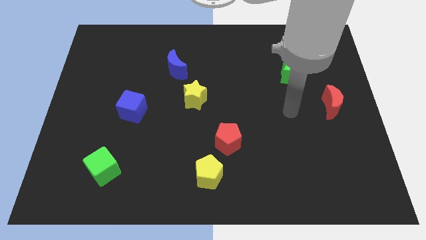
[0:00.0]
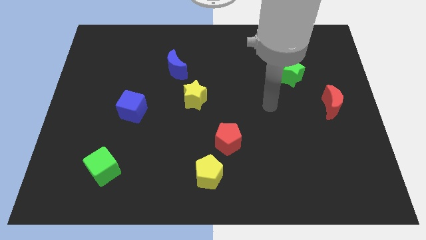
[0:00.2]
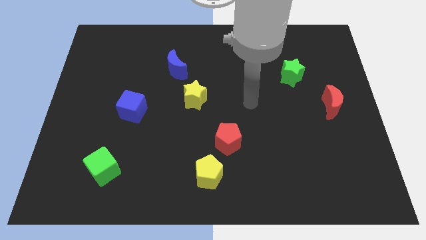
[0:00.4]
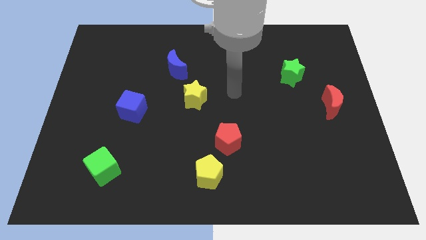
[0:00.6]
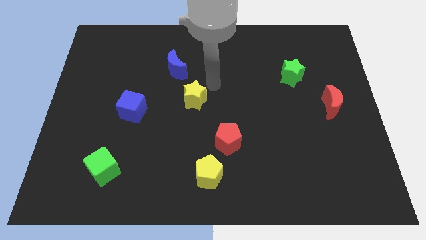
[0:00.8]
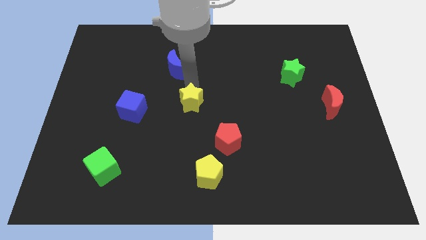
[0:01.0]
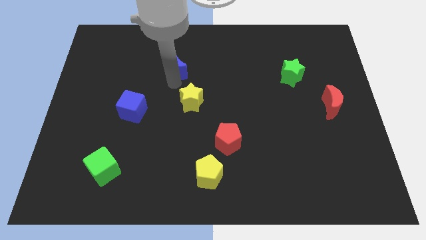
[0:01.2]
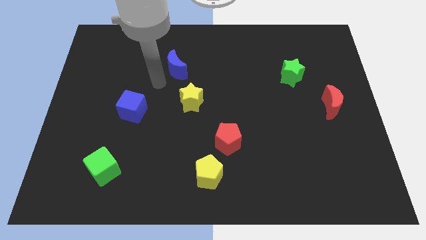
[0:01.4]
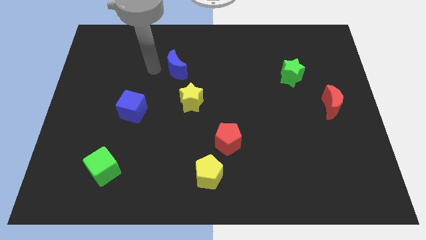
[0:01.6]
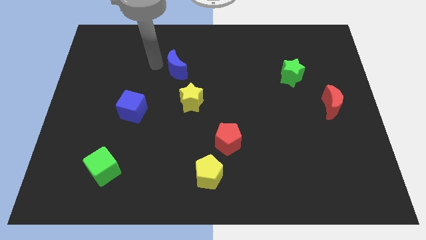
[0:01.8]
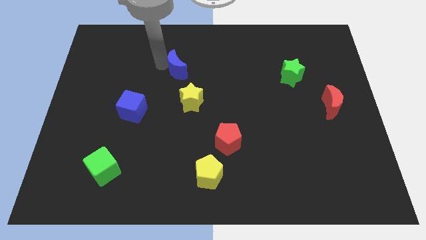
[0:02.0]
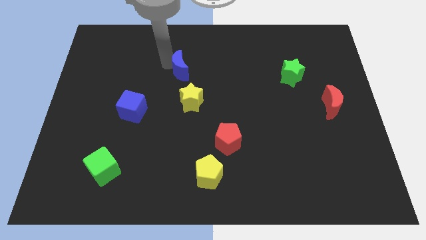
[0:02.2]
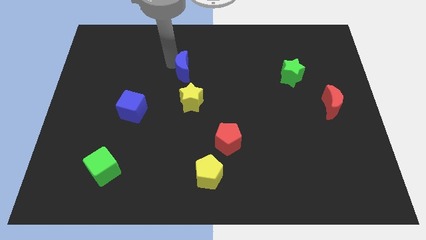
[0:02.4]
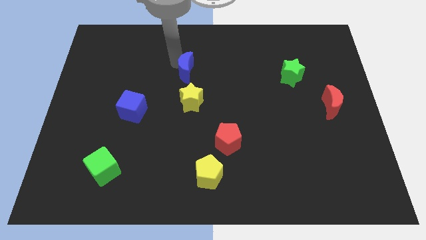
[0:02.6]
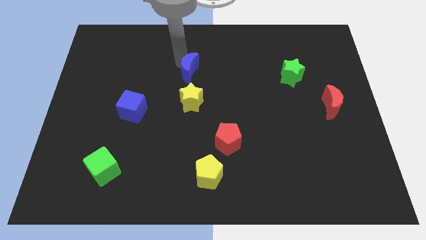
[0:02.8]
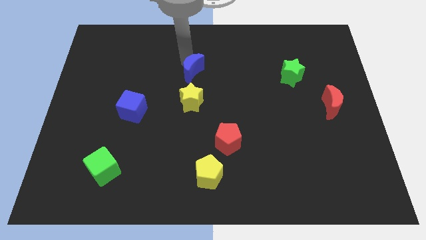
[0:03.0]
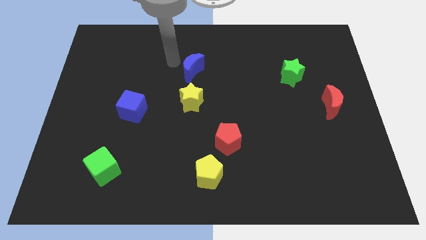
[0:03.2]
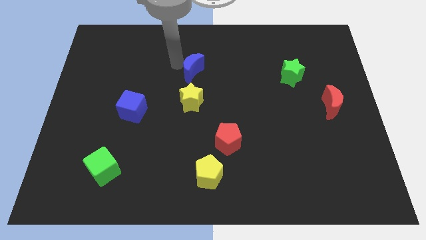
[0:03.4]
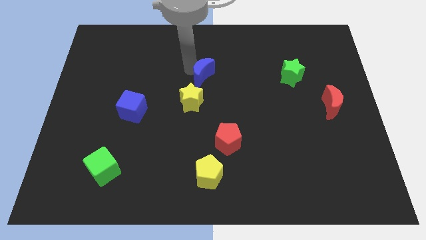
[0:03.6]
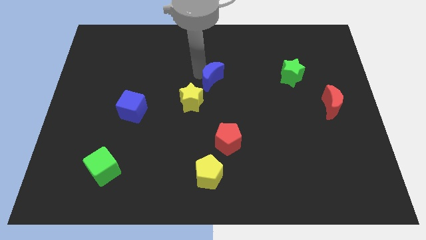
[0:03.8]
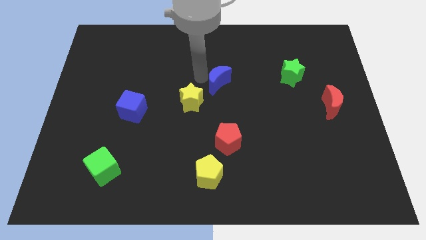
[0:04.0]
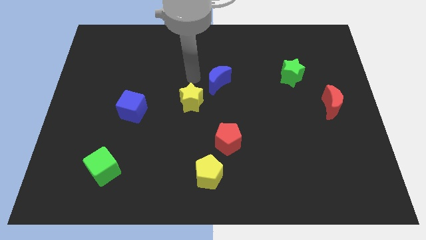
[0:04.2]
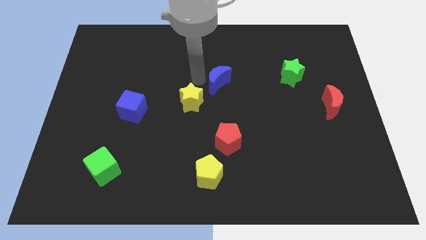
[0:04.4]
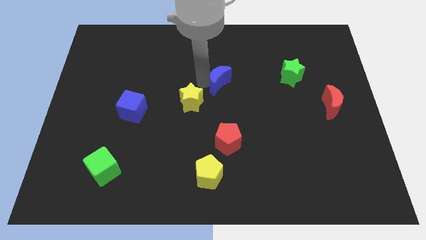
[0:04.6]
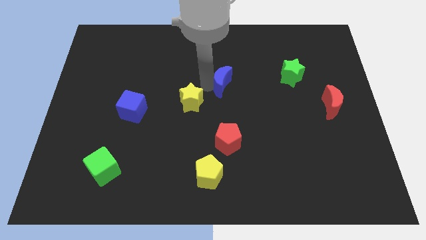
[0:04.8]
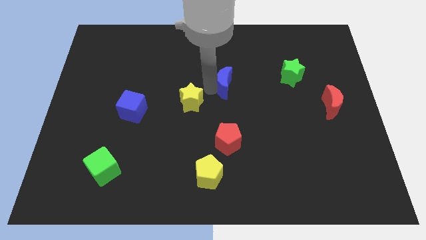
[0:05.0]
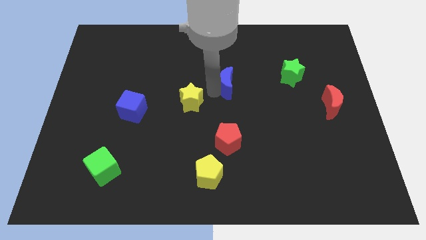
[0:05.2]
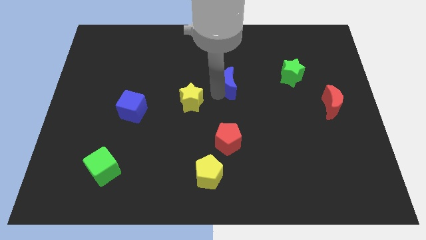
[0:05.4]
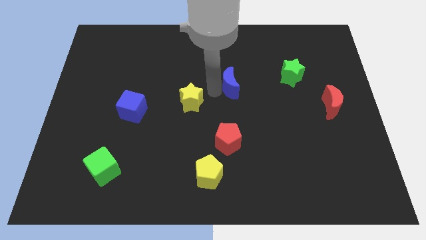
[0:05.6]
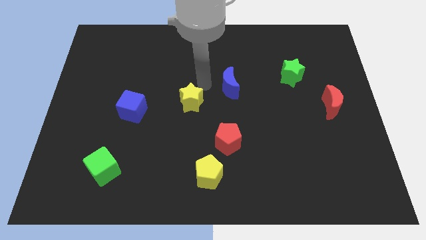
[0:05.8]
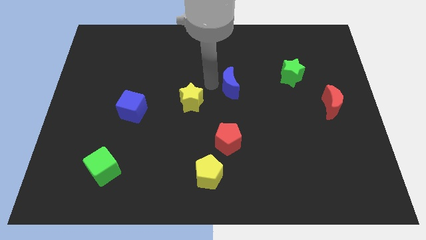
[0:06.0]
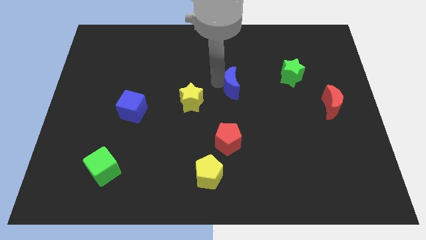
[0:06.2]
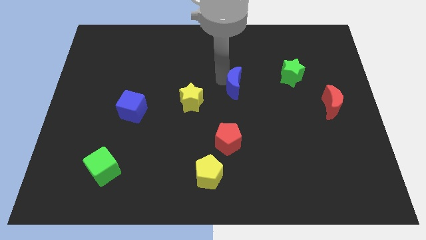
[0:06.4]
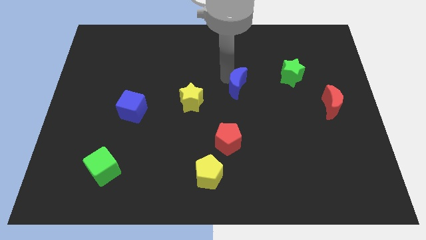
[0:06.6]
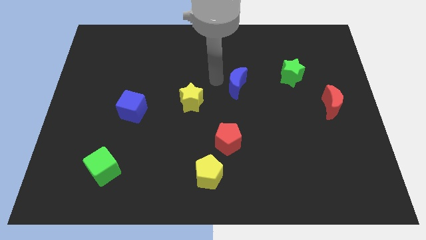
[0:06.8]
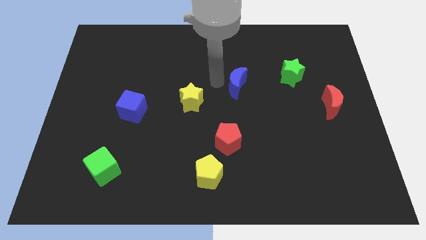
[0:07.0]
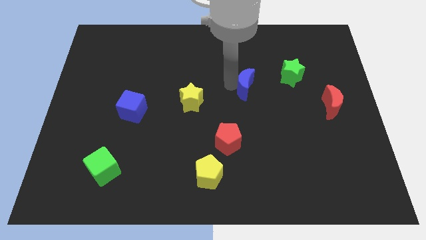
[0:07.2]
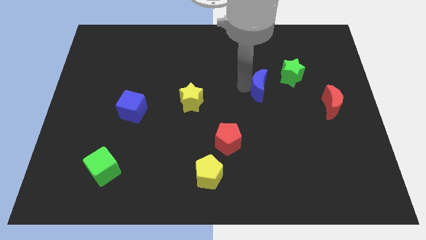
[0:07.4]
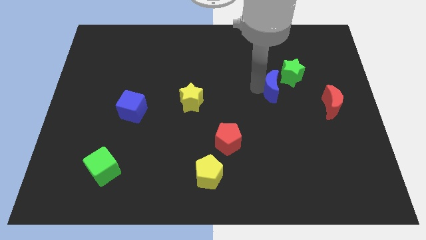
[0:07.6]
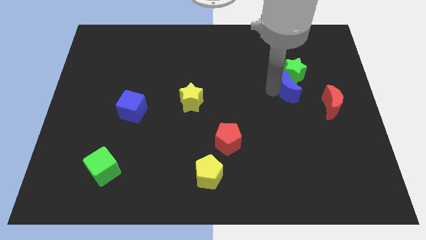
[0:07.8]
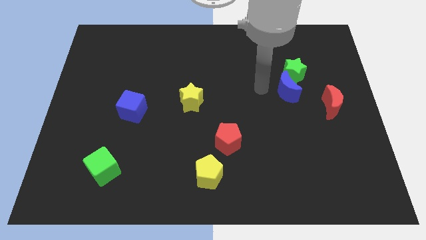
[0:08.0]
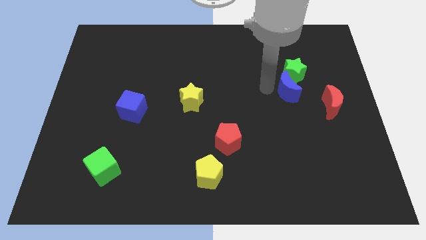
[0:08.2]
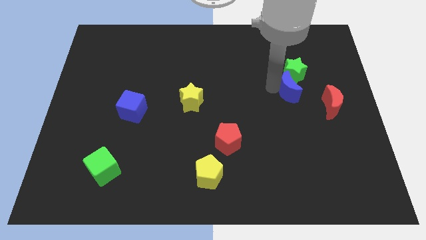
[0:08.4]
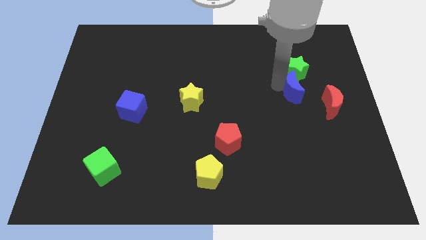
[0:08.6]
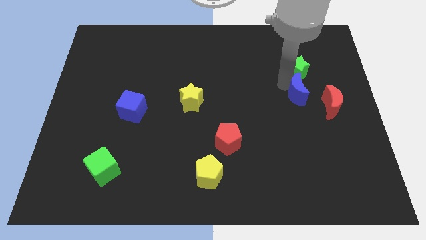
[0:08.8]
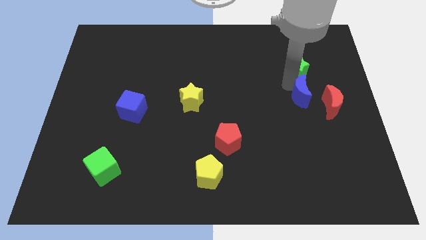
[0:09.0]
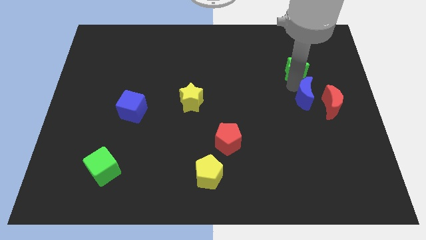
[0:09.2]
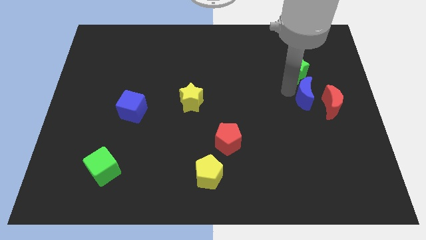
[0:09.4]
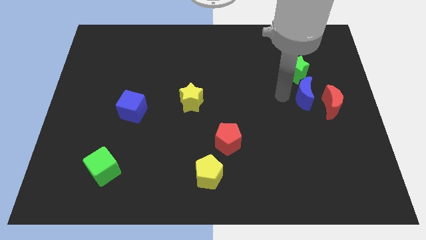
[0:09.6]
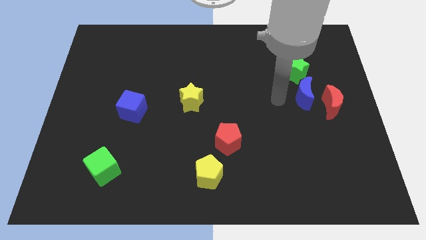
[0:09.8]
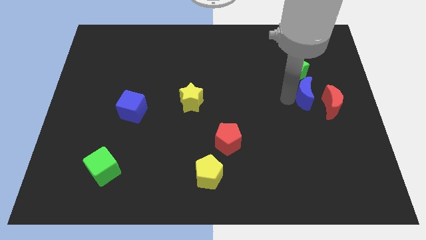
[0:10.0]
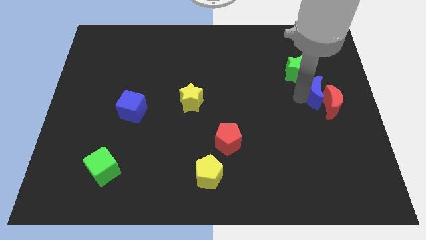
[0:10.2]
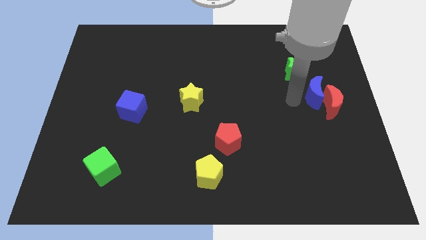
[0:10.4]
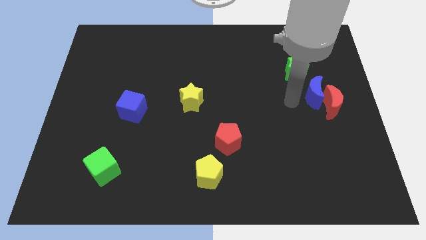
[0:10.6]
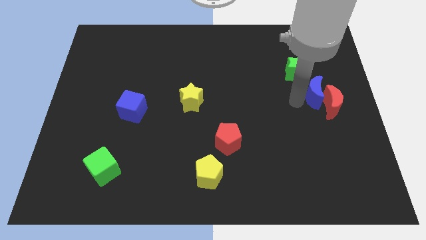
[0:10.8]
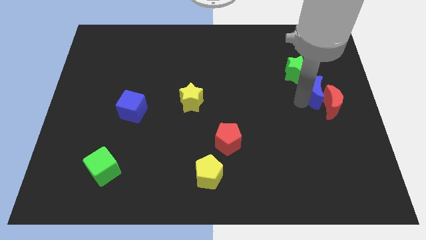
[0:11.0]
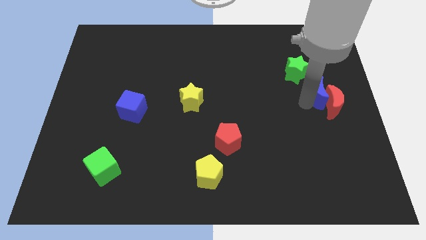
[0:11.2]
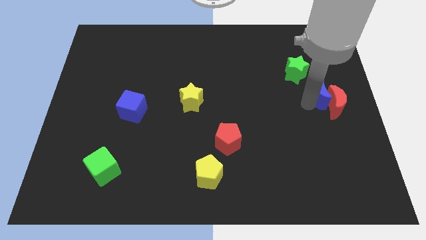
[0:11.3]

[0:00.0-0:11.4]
move the blue moon to the center right

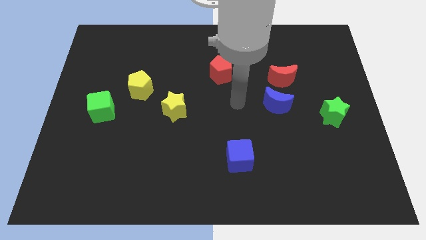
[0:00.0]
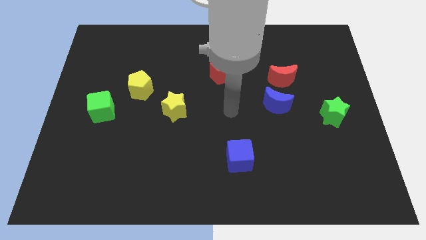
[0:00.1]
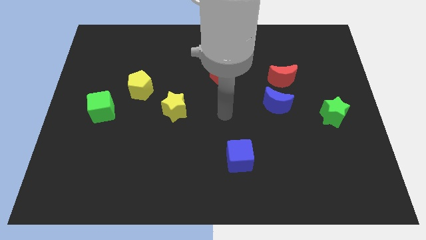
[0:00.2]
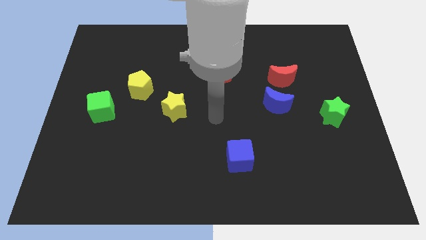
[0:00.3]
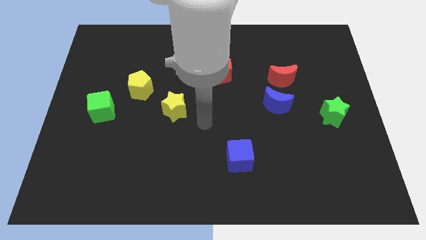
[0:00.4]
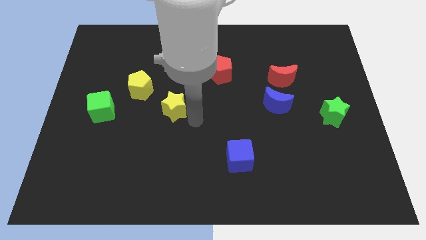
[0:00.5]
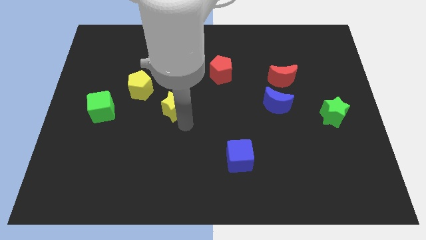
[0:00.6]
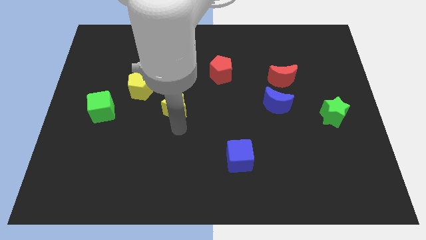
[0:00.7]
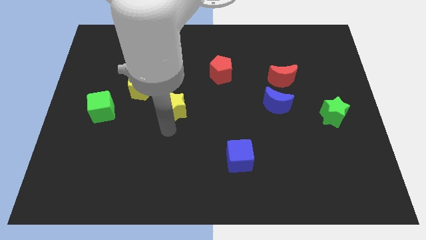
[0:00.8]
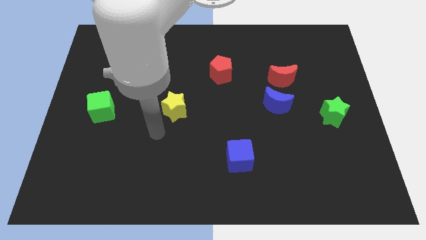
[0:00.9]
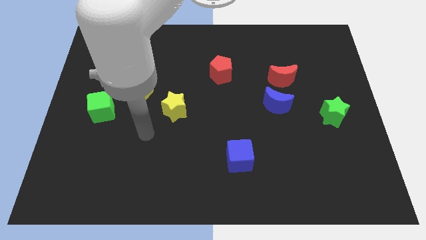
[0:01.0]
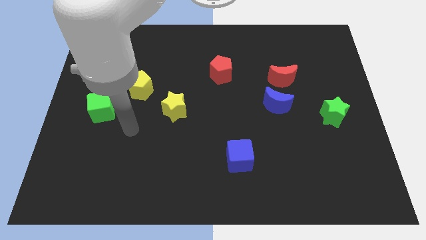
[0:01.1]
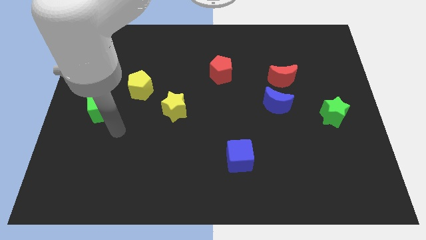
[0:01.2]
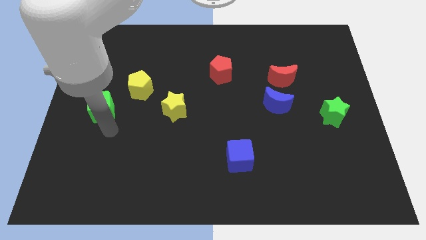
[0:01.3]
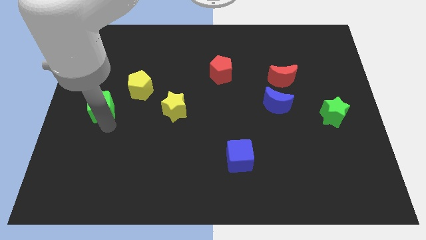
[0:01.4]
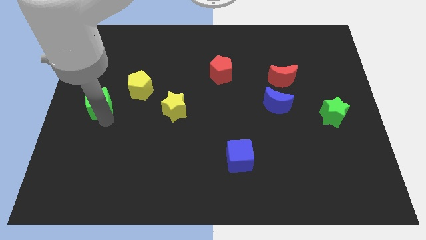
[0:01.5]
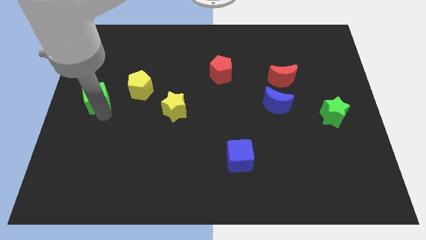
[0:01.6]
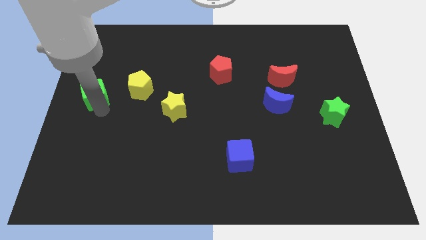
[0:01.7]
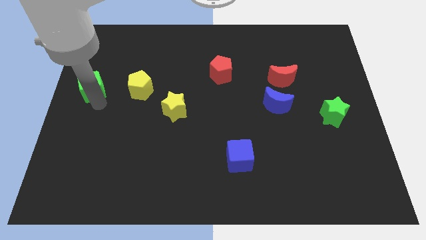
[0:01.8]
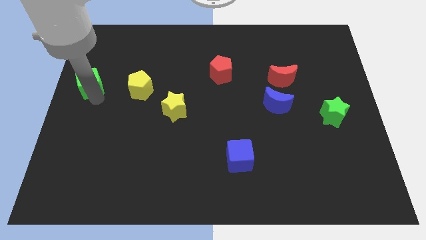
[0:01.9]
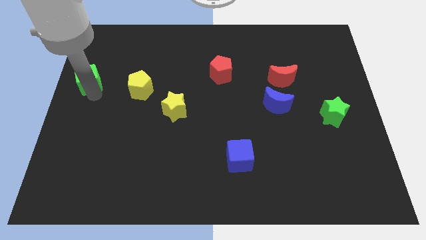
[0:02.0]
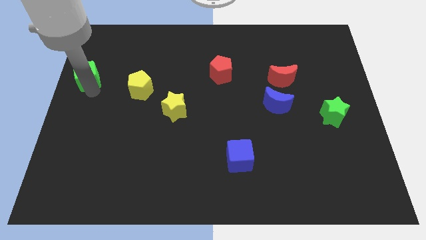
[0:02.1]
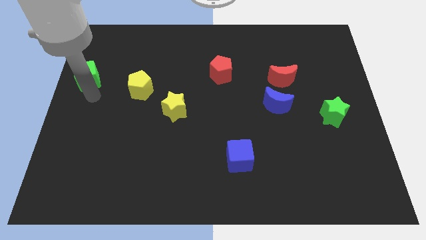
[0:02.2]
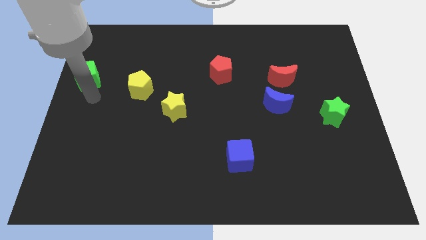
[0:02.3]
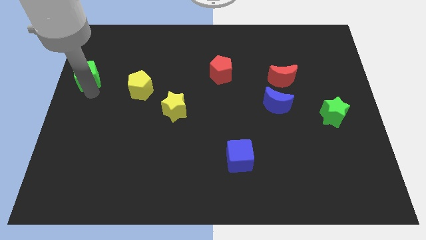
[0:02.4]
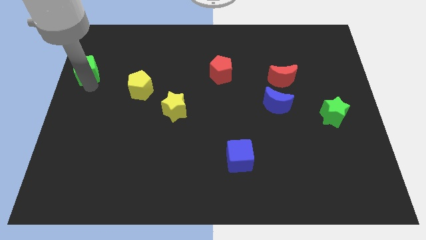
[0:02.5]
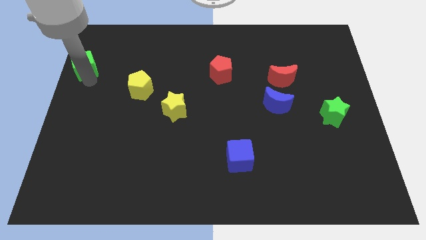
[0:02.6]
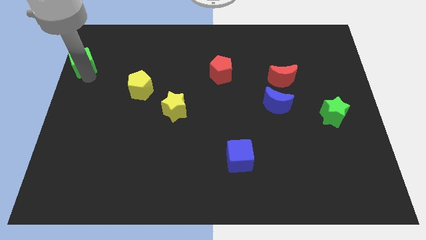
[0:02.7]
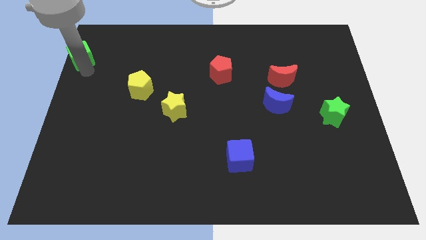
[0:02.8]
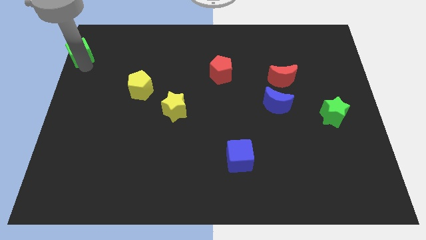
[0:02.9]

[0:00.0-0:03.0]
move the green cube to the top left
